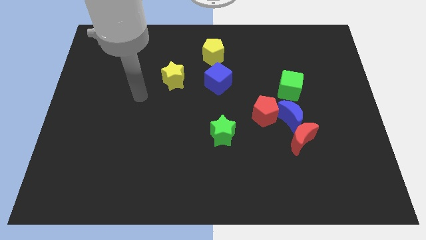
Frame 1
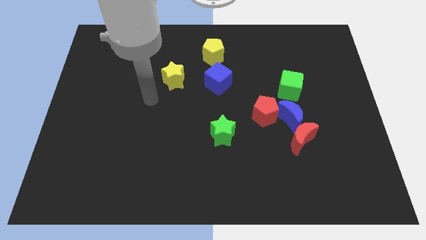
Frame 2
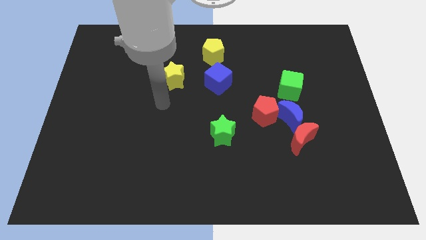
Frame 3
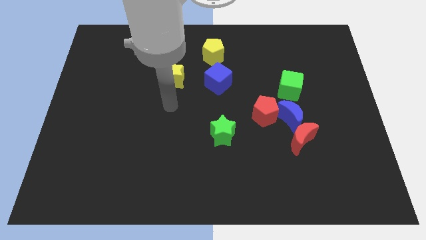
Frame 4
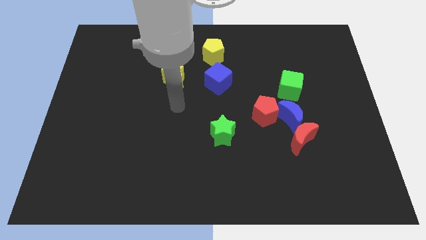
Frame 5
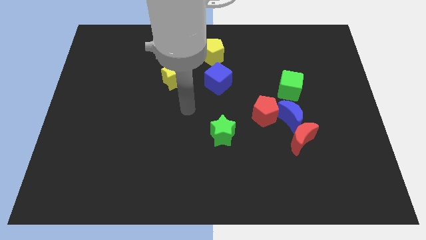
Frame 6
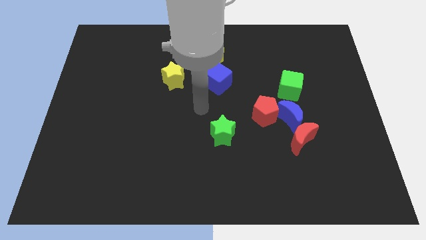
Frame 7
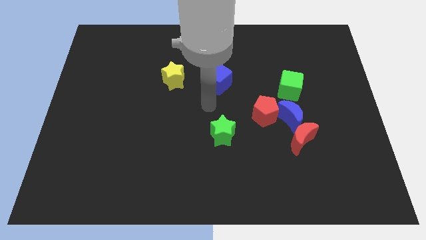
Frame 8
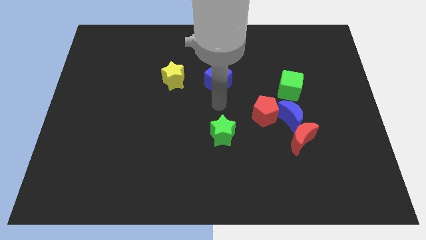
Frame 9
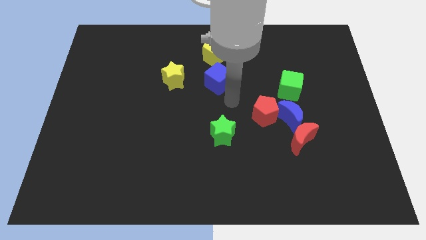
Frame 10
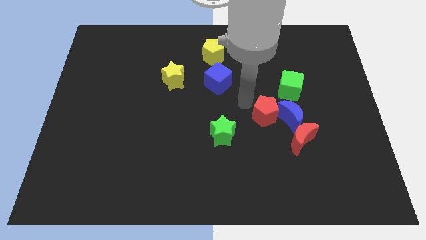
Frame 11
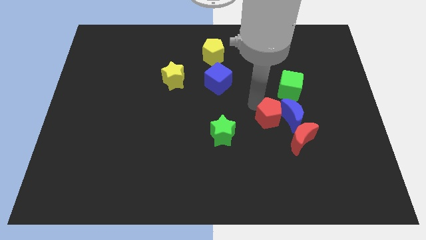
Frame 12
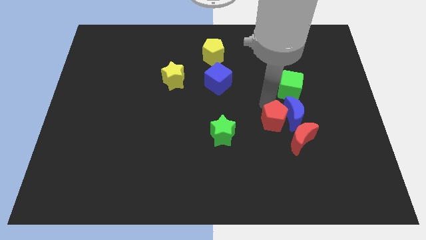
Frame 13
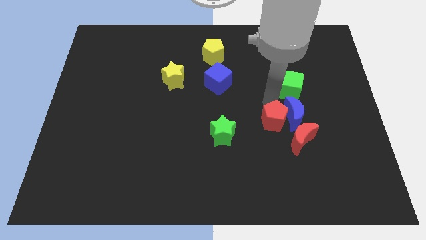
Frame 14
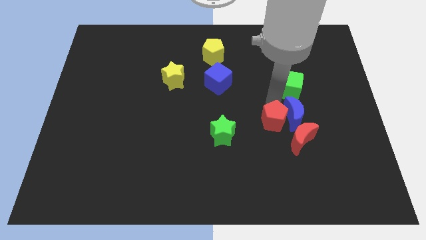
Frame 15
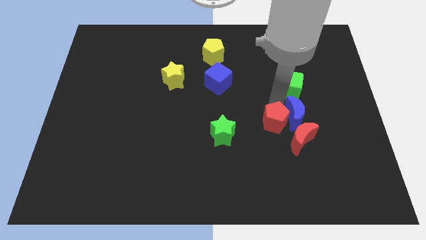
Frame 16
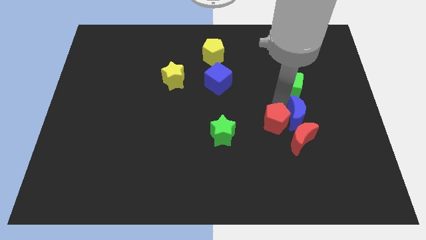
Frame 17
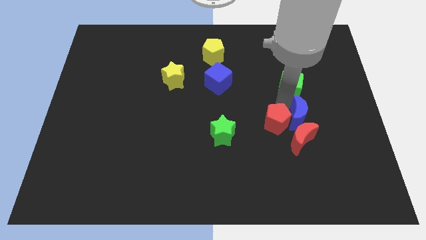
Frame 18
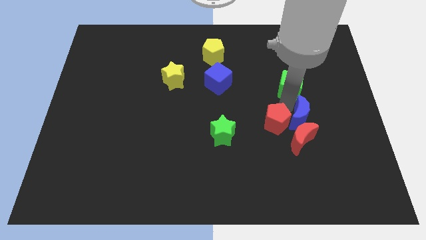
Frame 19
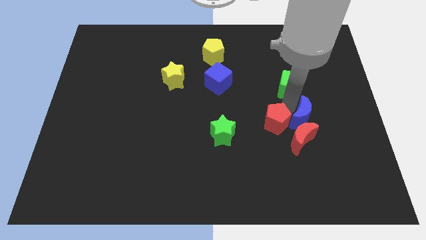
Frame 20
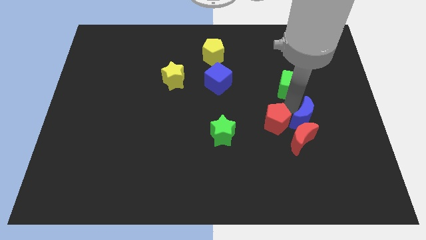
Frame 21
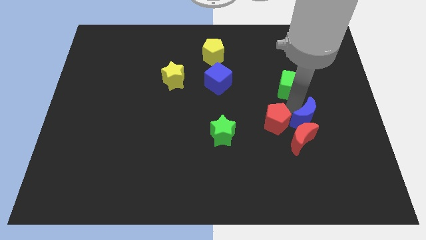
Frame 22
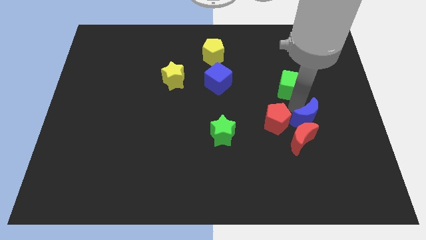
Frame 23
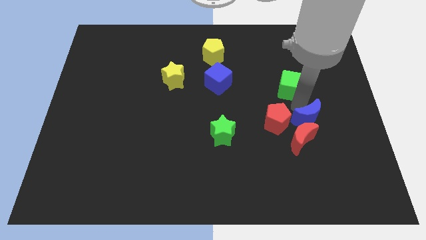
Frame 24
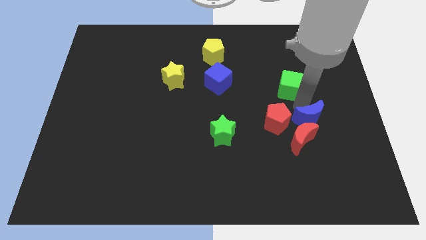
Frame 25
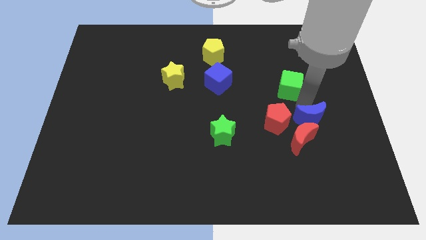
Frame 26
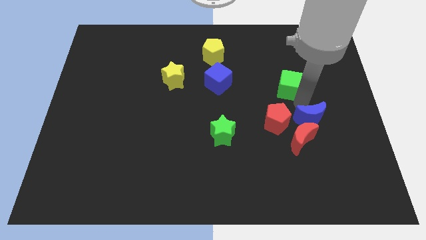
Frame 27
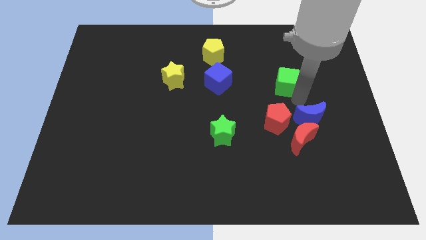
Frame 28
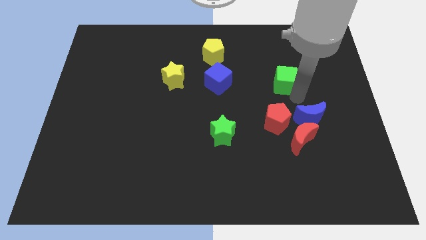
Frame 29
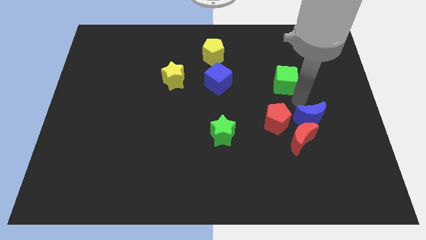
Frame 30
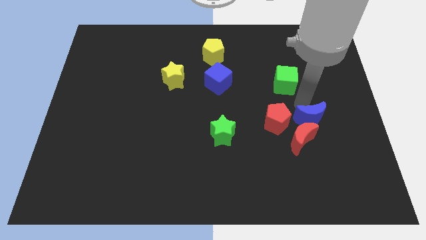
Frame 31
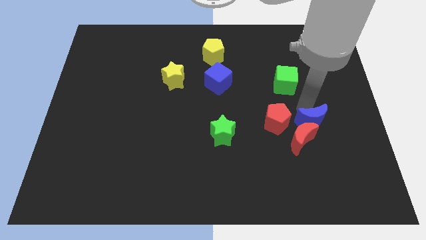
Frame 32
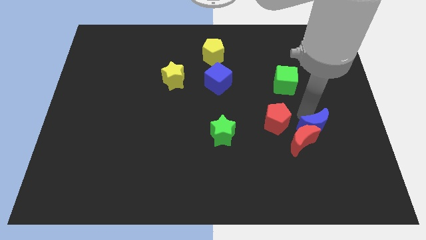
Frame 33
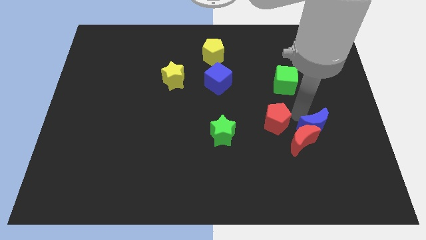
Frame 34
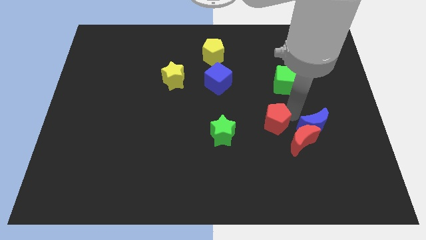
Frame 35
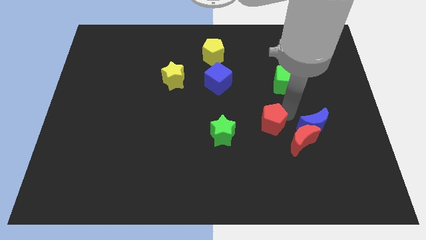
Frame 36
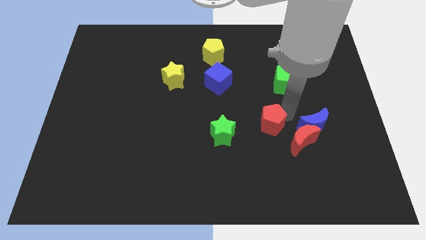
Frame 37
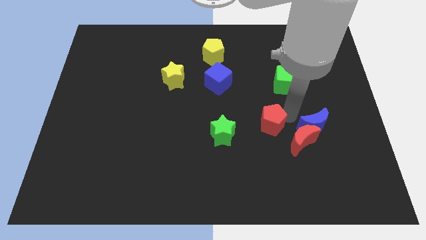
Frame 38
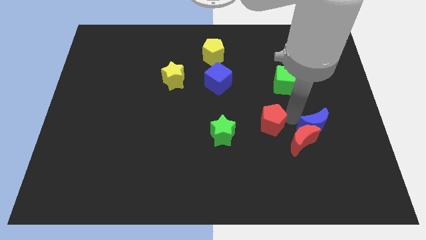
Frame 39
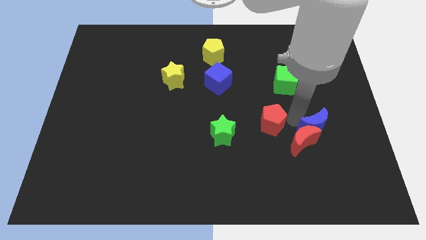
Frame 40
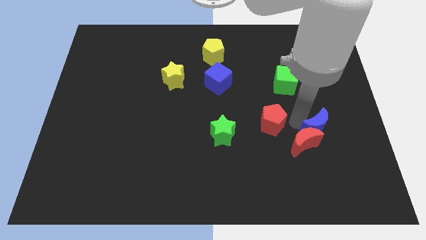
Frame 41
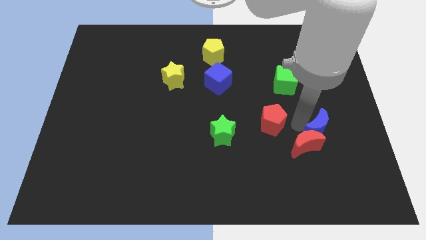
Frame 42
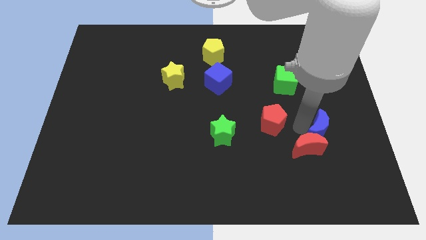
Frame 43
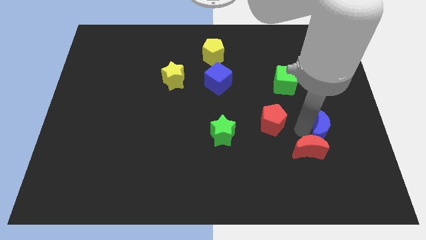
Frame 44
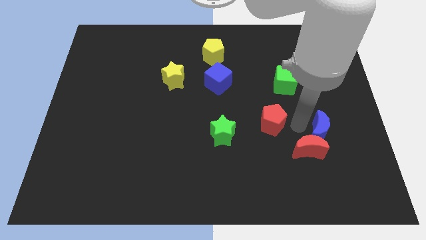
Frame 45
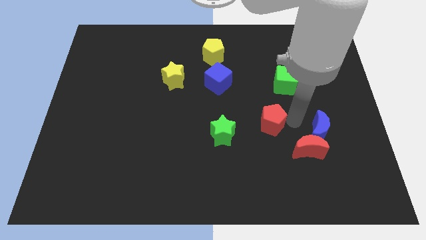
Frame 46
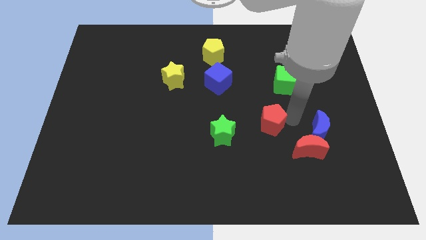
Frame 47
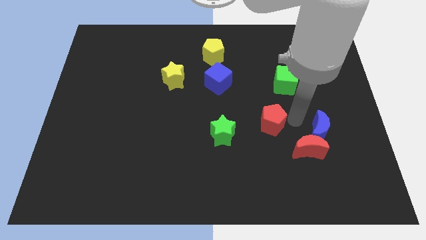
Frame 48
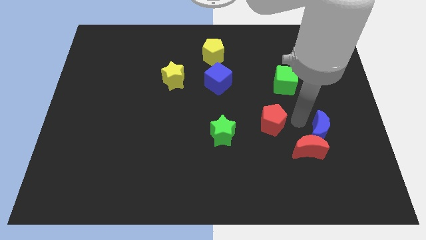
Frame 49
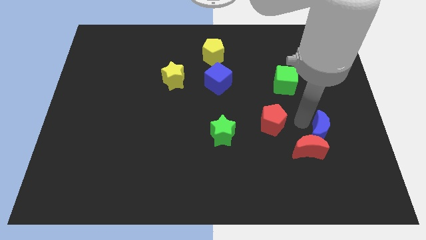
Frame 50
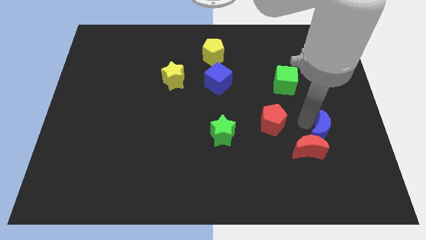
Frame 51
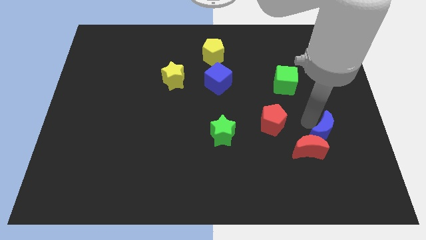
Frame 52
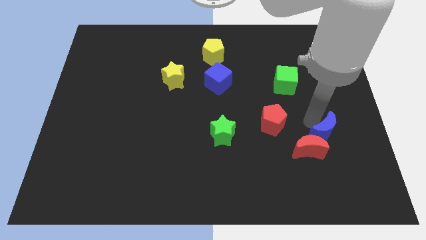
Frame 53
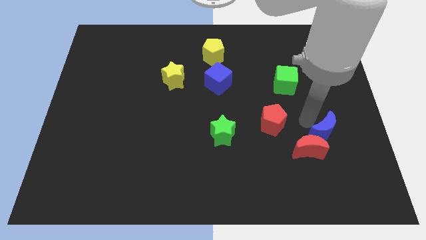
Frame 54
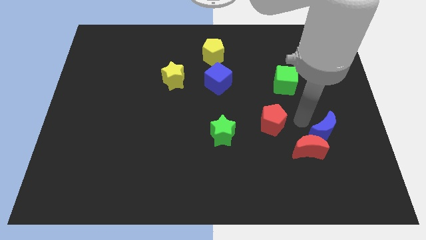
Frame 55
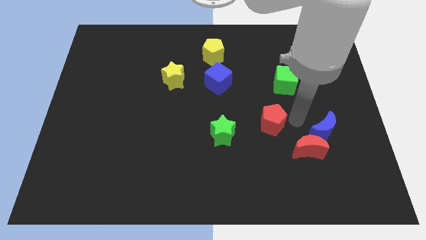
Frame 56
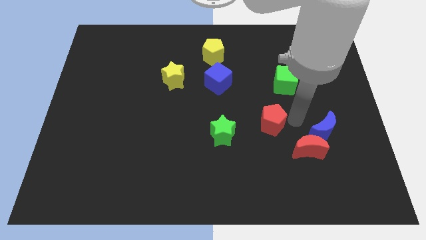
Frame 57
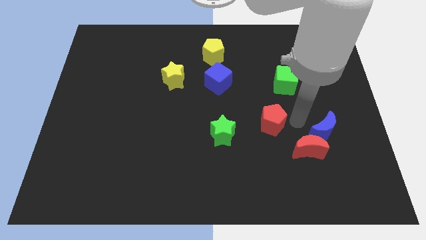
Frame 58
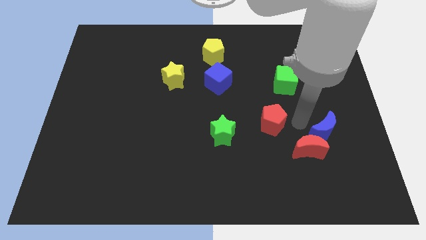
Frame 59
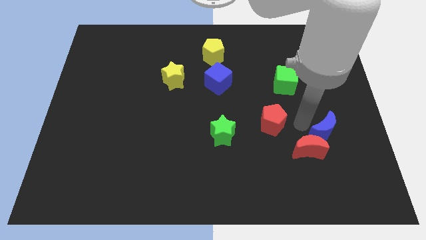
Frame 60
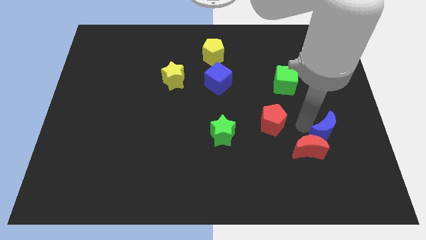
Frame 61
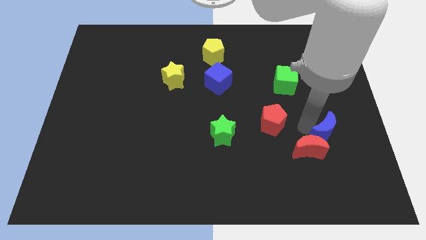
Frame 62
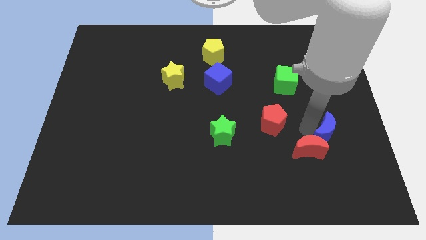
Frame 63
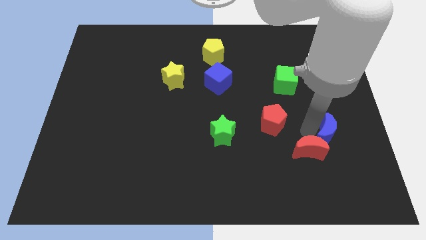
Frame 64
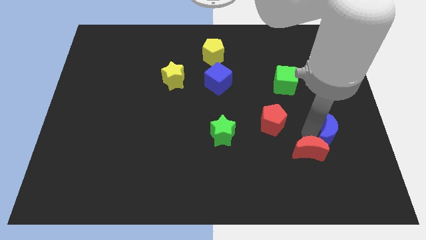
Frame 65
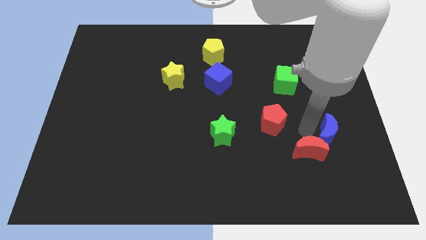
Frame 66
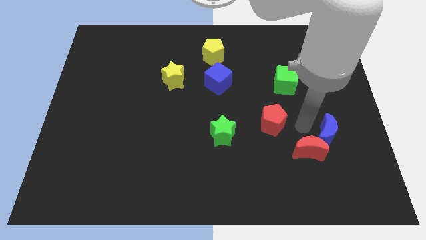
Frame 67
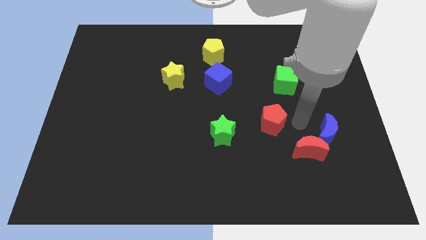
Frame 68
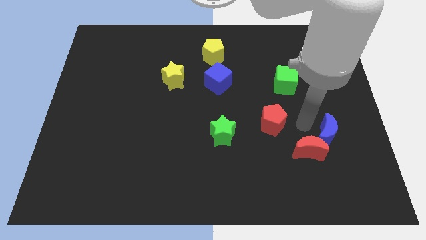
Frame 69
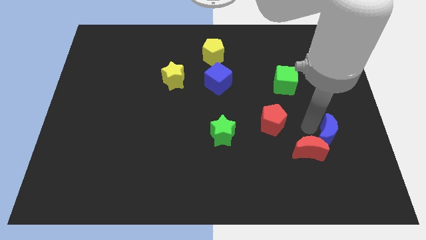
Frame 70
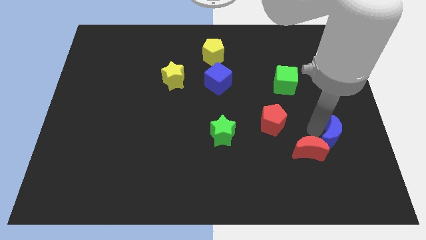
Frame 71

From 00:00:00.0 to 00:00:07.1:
separate the blue moon from the clump

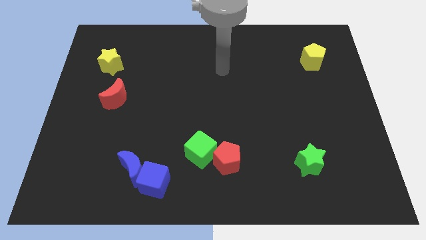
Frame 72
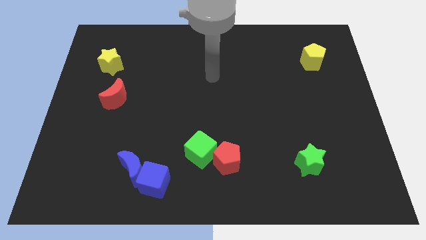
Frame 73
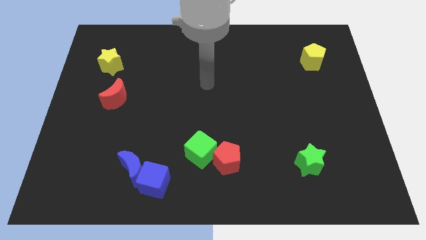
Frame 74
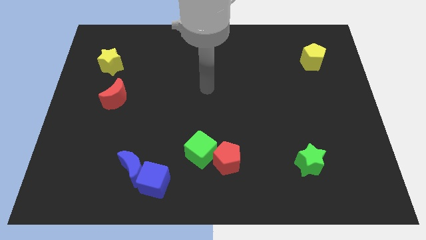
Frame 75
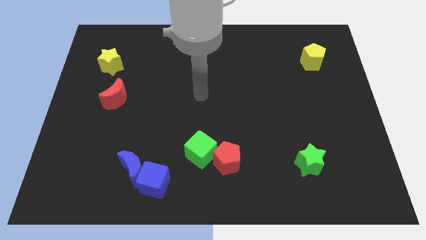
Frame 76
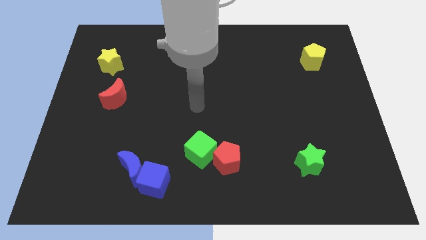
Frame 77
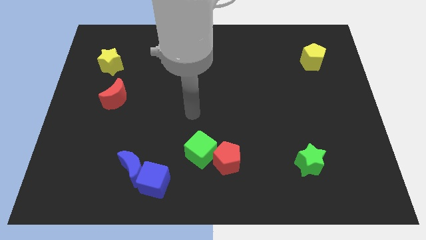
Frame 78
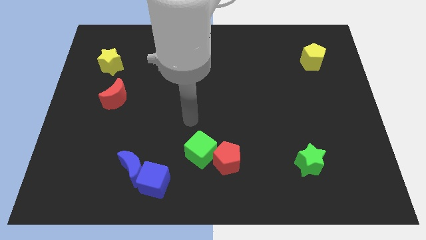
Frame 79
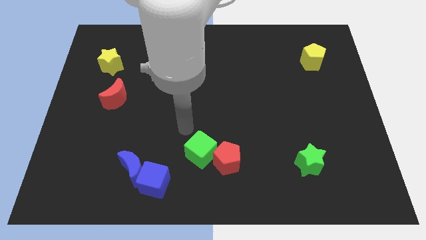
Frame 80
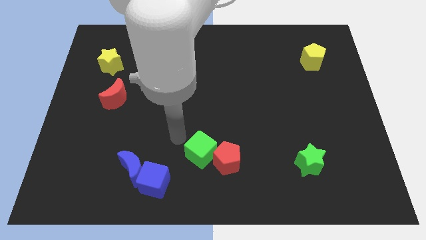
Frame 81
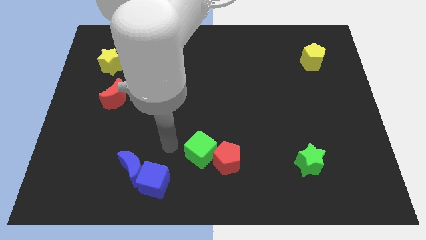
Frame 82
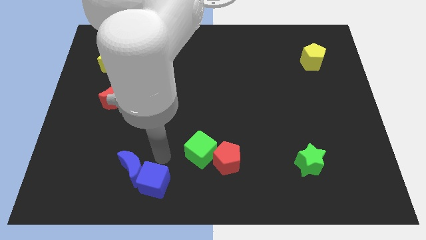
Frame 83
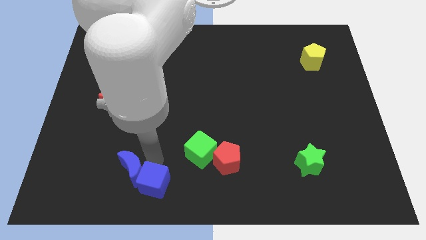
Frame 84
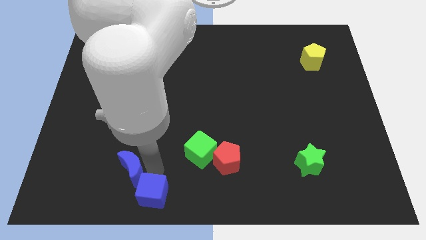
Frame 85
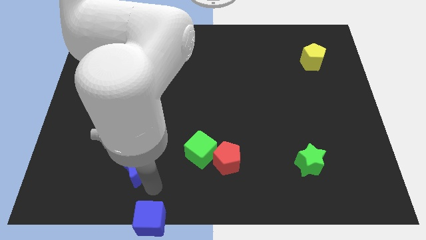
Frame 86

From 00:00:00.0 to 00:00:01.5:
separate the blue moon from the blue cube

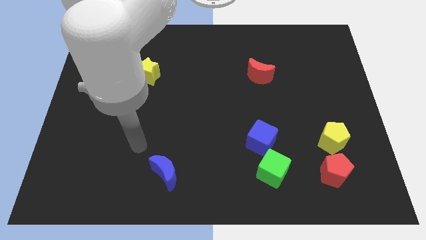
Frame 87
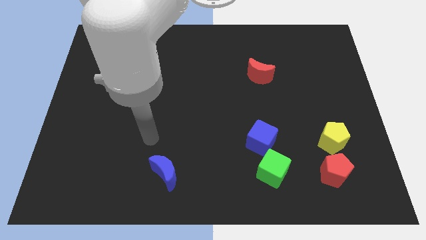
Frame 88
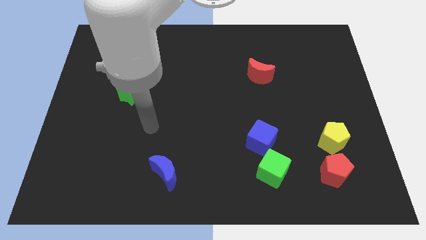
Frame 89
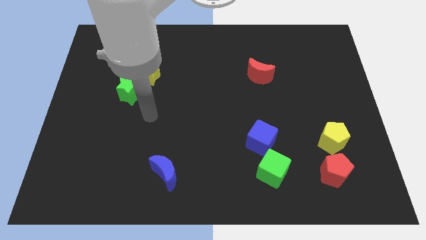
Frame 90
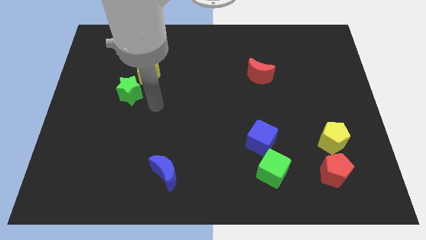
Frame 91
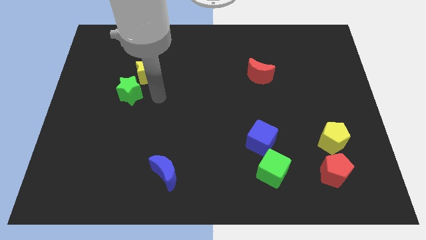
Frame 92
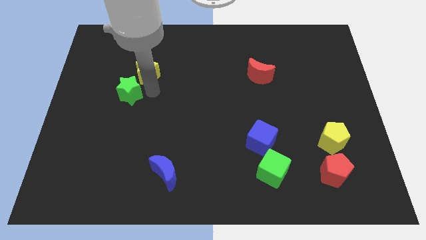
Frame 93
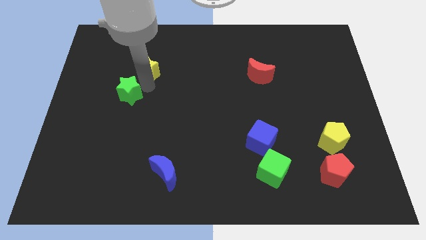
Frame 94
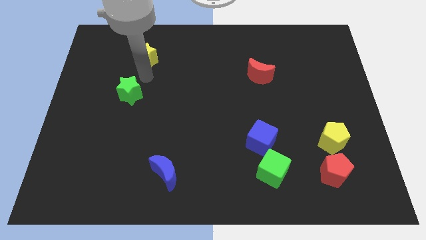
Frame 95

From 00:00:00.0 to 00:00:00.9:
pull the green star apart from the yellow star
